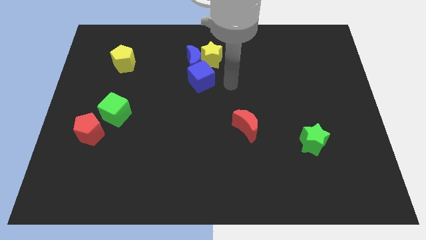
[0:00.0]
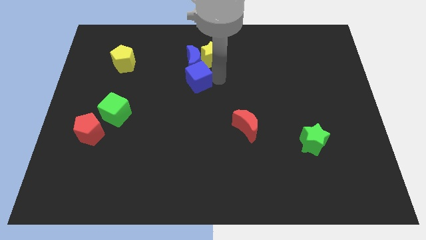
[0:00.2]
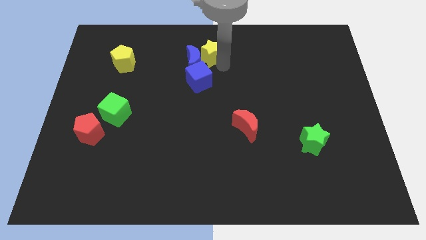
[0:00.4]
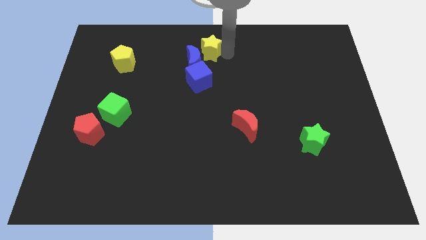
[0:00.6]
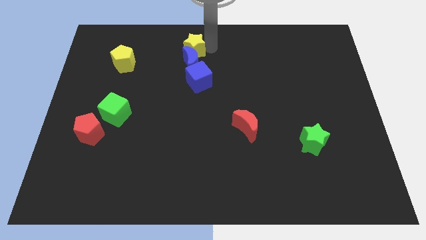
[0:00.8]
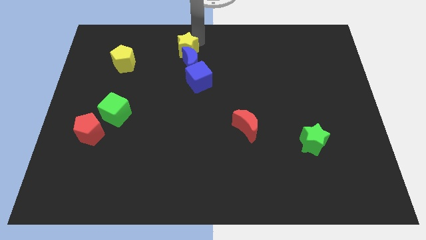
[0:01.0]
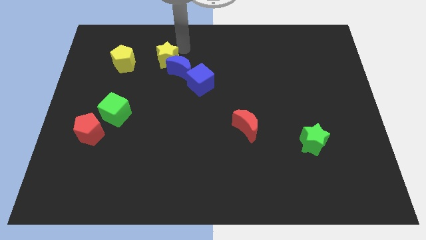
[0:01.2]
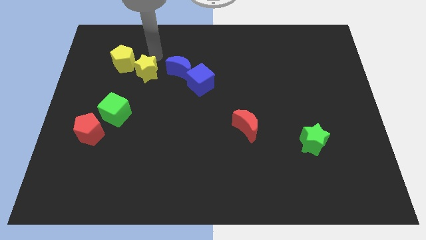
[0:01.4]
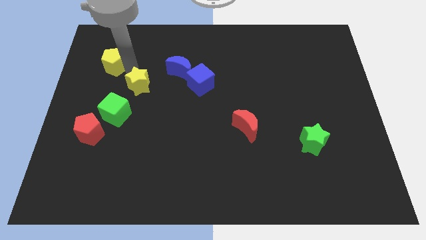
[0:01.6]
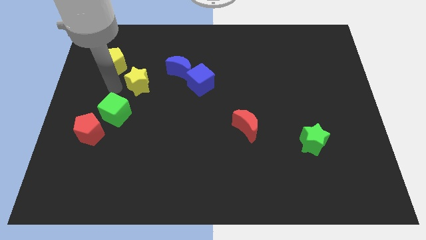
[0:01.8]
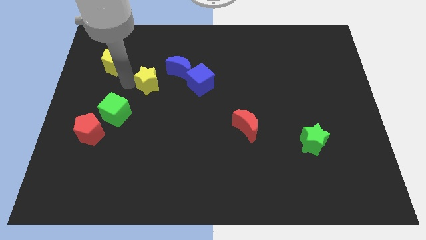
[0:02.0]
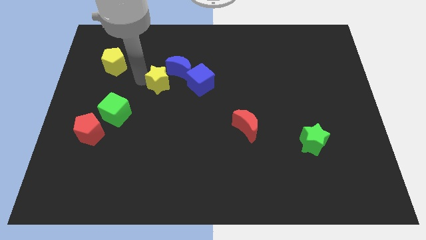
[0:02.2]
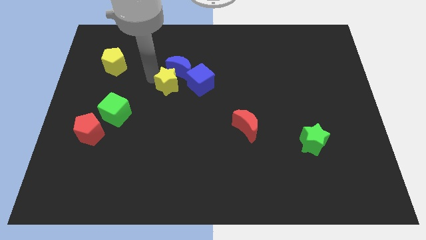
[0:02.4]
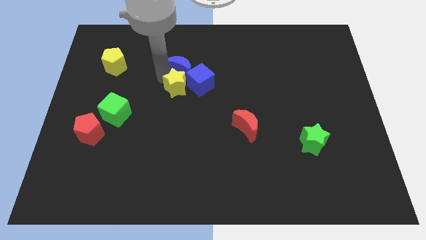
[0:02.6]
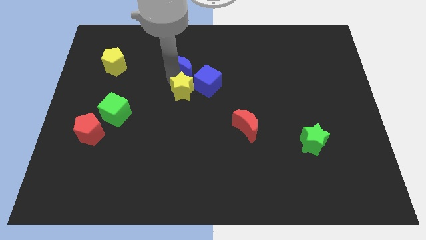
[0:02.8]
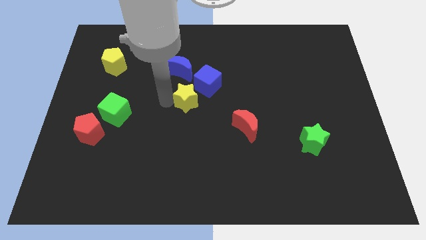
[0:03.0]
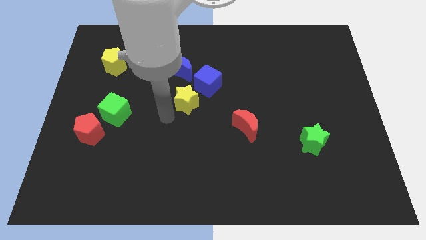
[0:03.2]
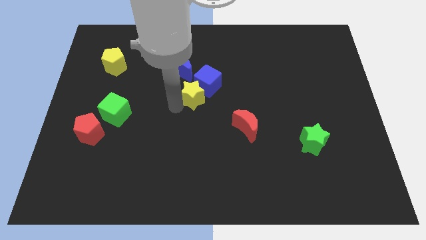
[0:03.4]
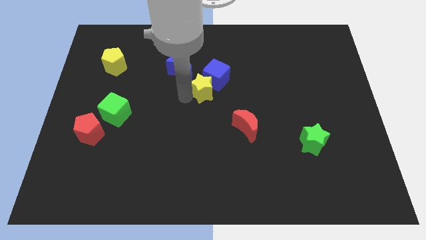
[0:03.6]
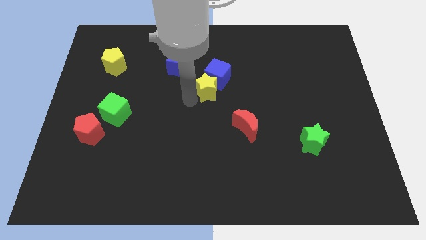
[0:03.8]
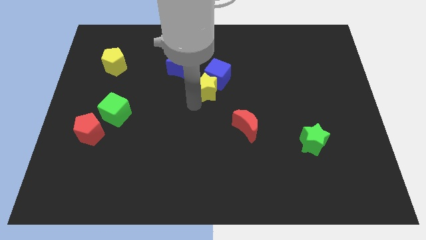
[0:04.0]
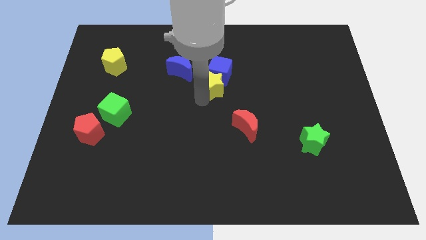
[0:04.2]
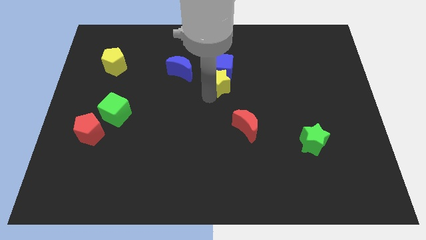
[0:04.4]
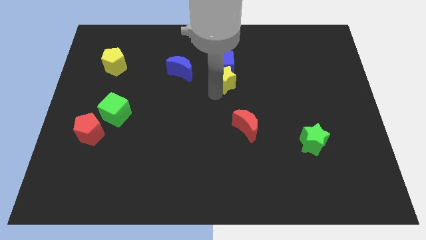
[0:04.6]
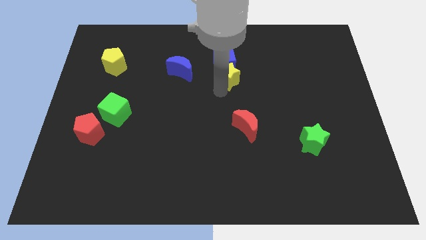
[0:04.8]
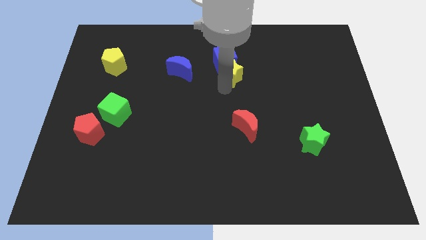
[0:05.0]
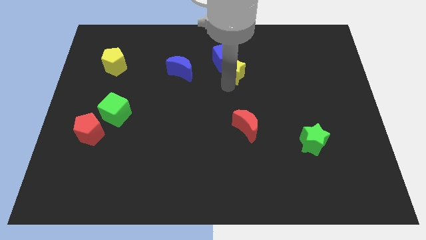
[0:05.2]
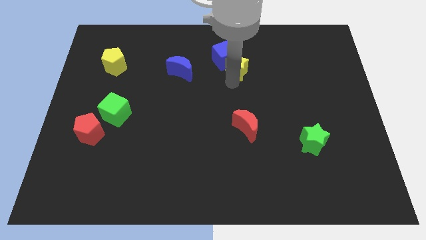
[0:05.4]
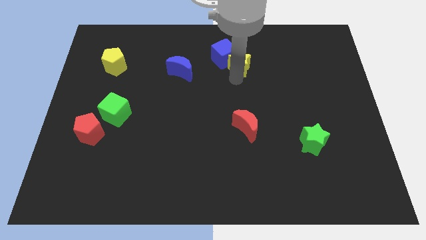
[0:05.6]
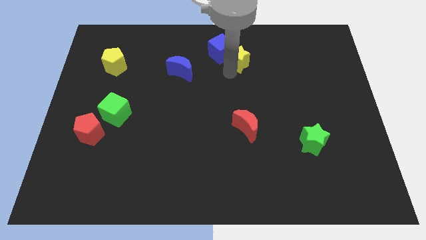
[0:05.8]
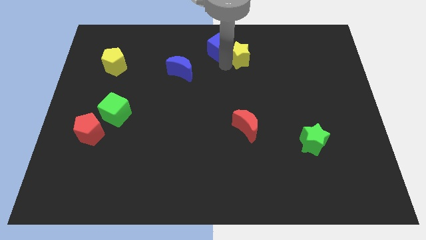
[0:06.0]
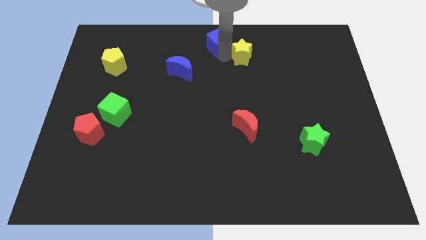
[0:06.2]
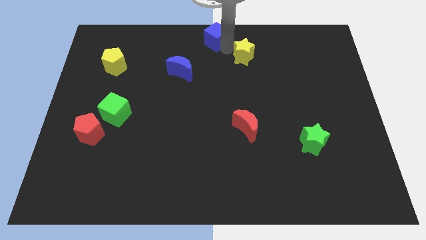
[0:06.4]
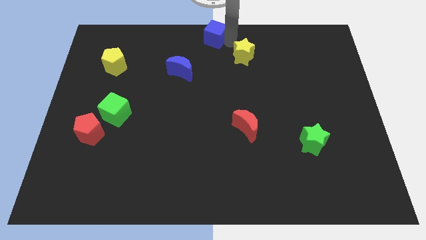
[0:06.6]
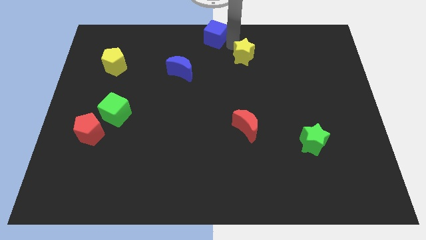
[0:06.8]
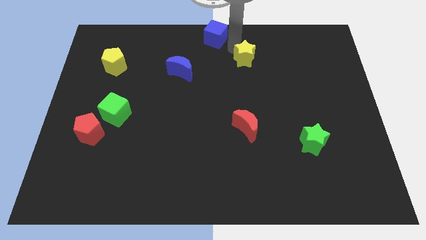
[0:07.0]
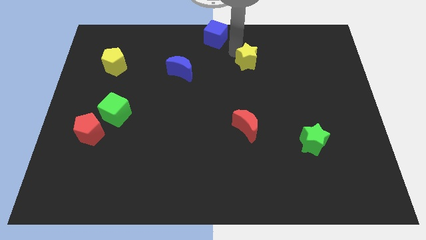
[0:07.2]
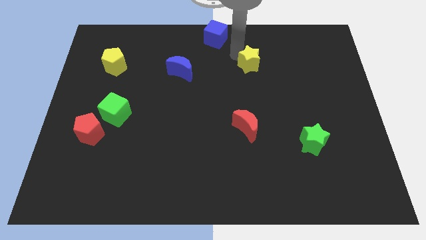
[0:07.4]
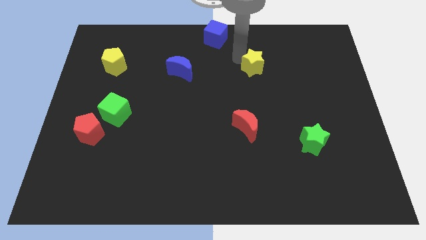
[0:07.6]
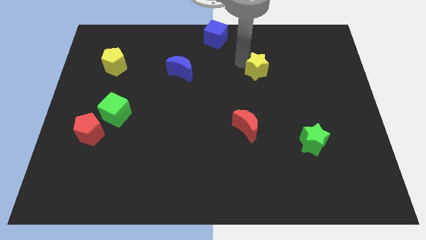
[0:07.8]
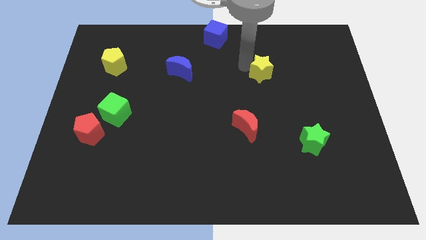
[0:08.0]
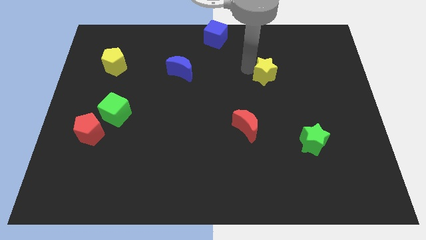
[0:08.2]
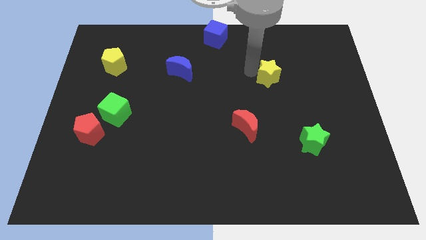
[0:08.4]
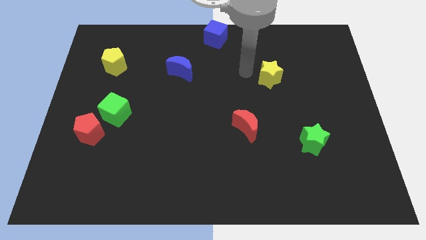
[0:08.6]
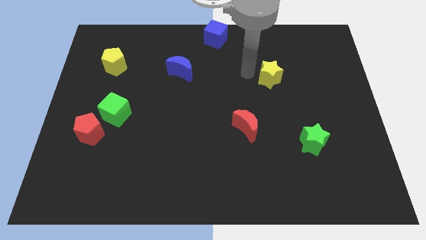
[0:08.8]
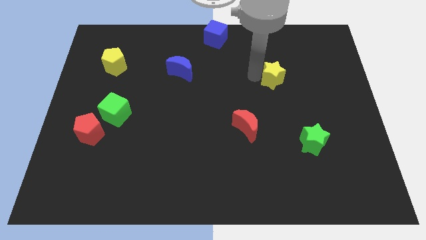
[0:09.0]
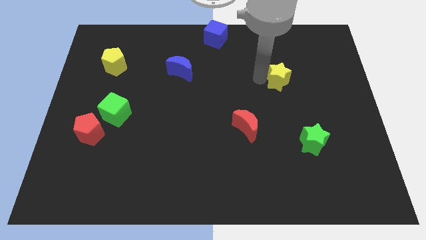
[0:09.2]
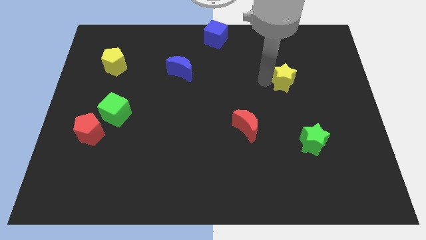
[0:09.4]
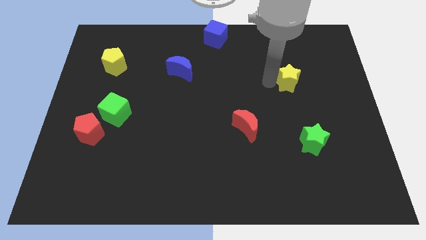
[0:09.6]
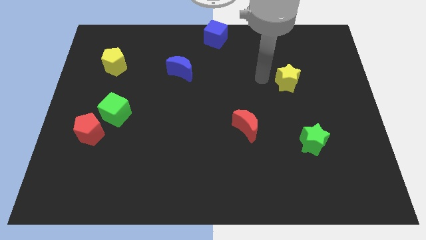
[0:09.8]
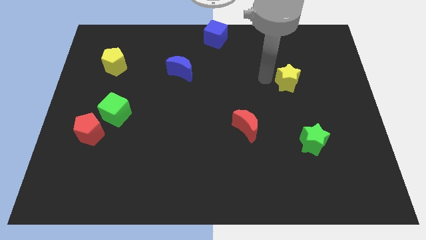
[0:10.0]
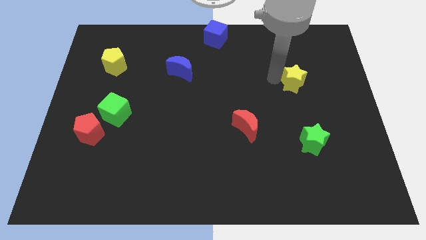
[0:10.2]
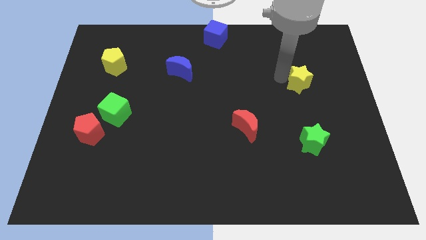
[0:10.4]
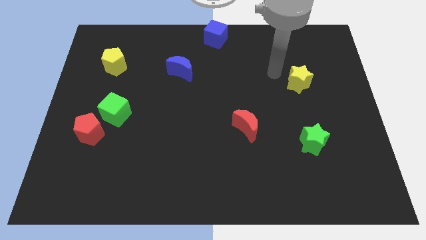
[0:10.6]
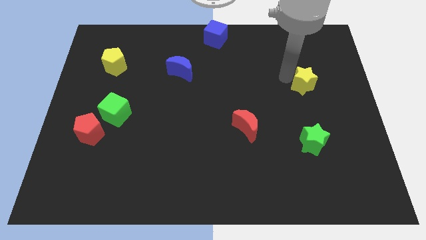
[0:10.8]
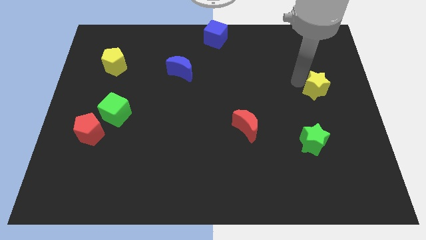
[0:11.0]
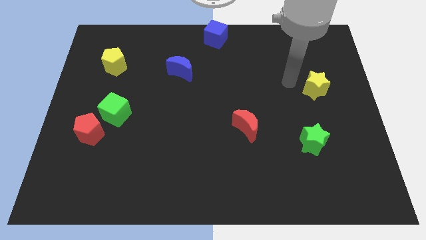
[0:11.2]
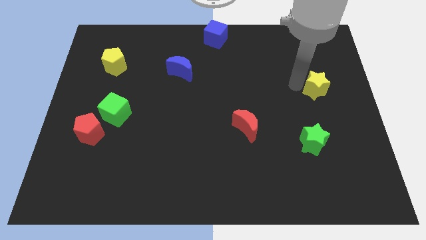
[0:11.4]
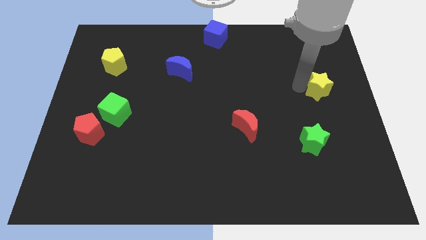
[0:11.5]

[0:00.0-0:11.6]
move the yellow star to the right side
